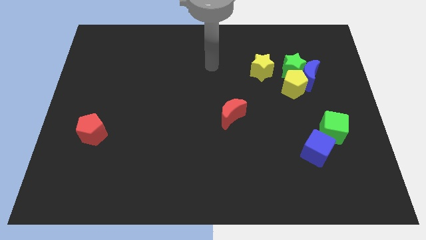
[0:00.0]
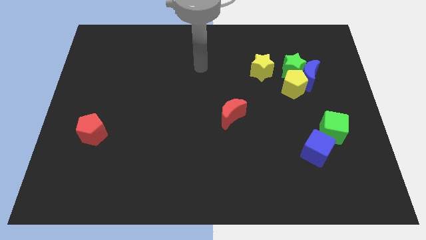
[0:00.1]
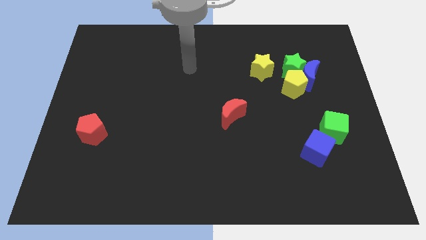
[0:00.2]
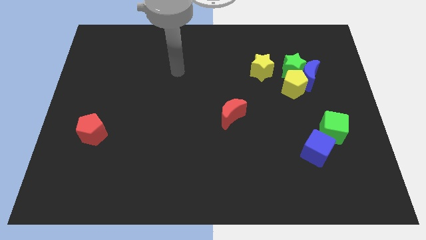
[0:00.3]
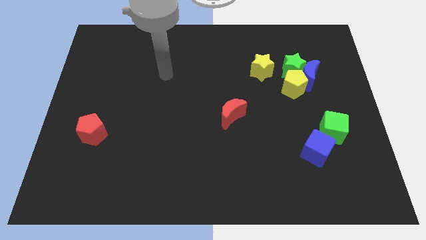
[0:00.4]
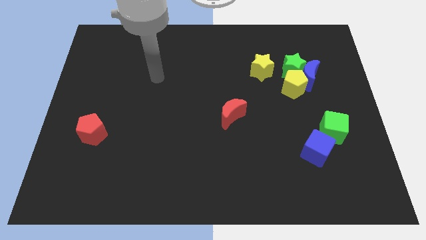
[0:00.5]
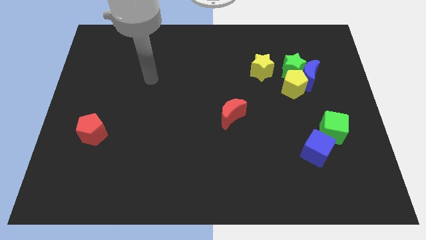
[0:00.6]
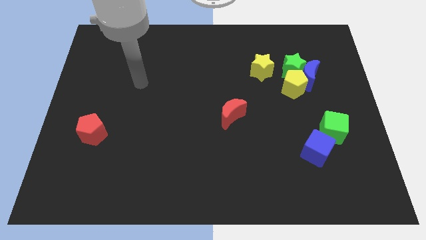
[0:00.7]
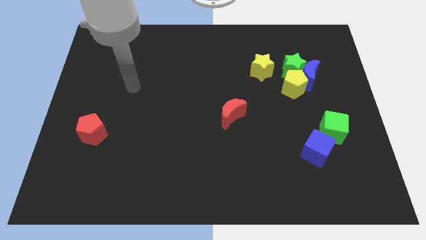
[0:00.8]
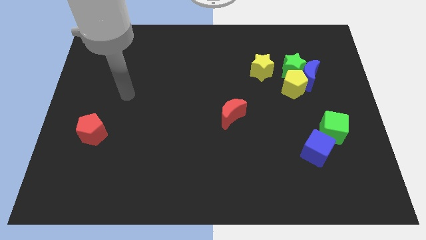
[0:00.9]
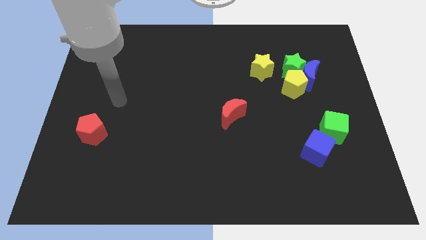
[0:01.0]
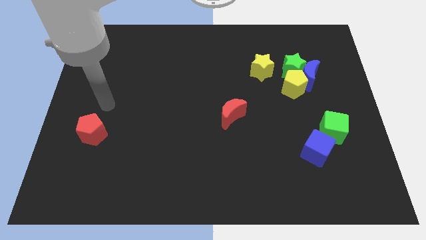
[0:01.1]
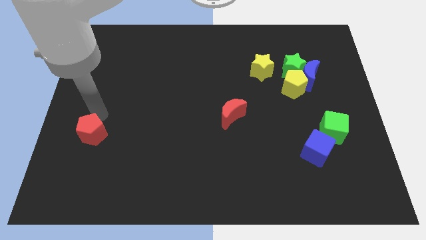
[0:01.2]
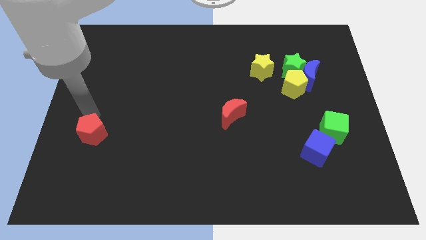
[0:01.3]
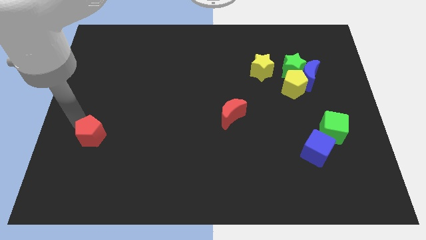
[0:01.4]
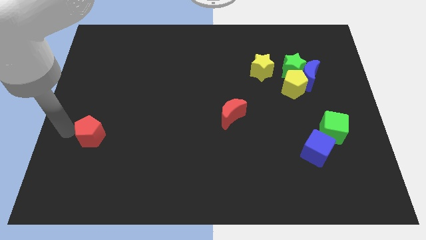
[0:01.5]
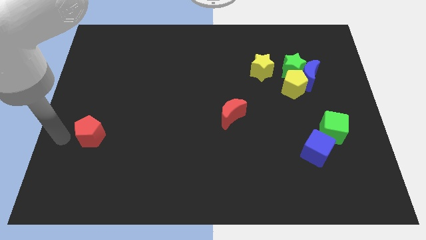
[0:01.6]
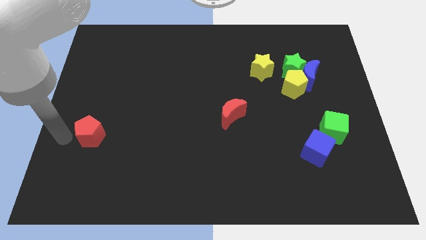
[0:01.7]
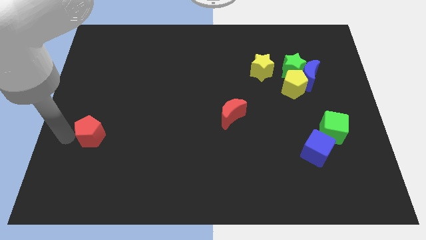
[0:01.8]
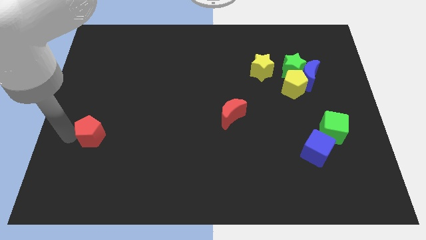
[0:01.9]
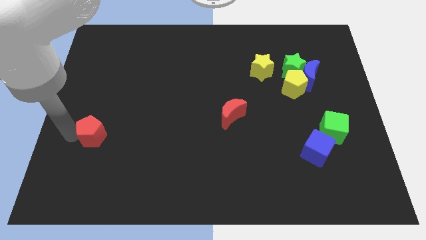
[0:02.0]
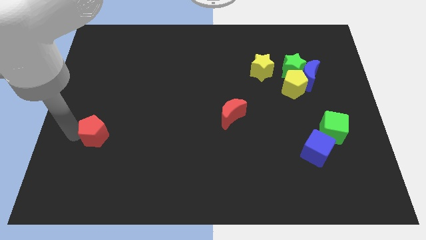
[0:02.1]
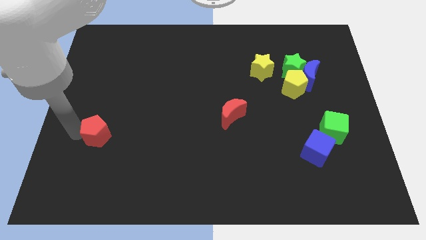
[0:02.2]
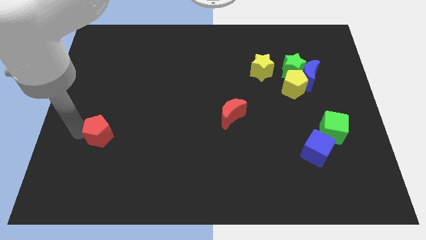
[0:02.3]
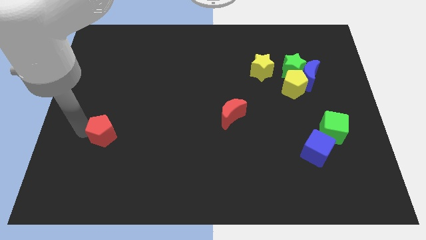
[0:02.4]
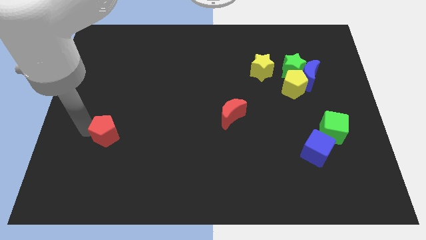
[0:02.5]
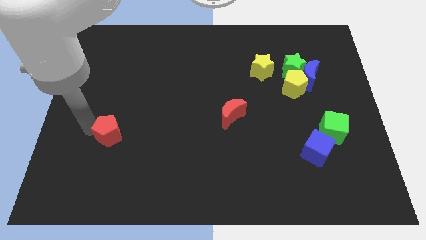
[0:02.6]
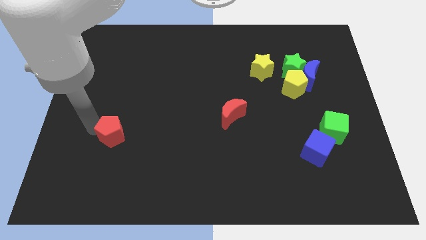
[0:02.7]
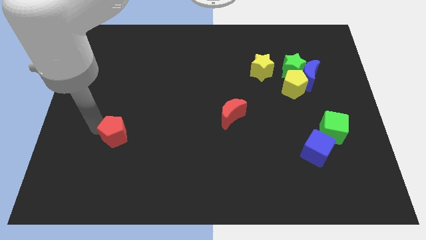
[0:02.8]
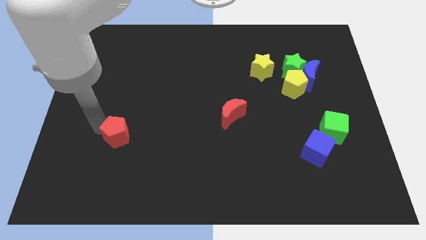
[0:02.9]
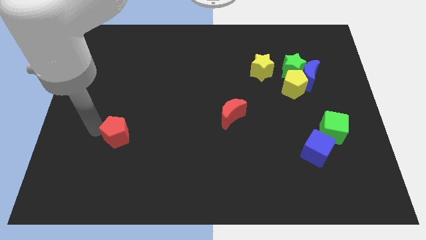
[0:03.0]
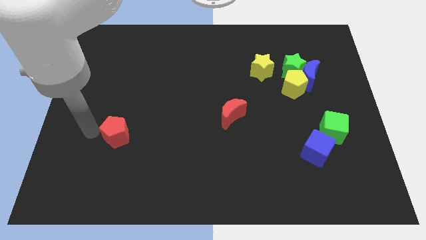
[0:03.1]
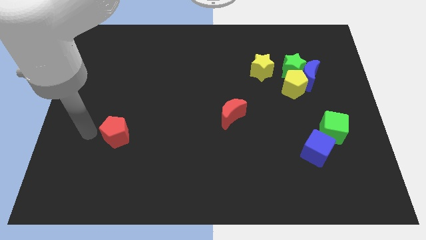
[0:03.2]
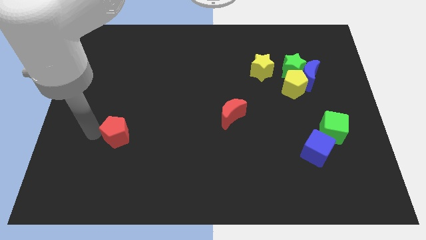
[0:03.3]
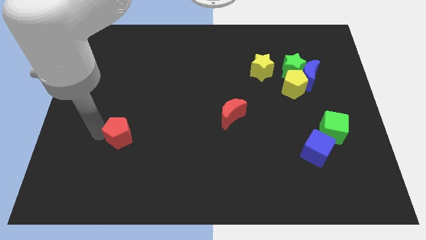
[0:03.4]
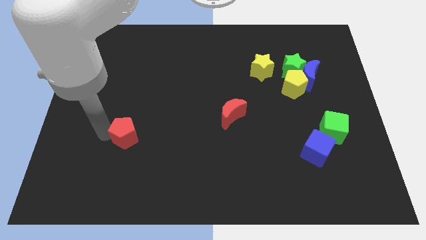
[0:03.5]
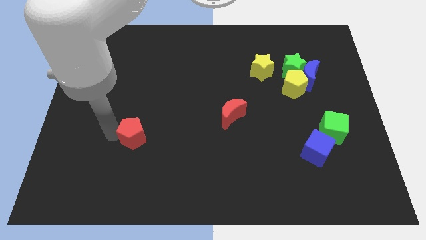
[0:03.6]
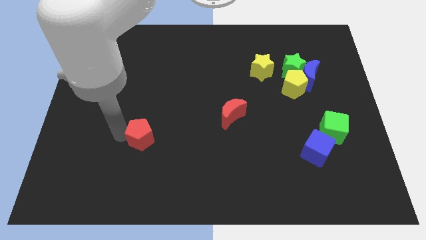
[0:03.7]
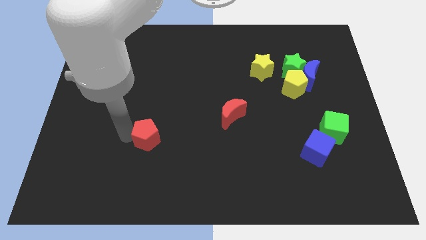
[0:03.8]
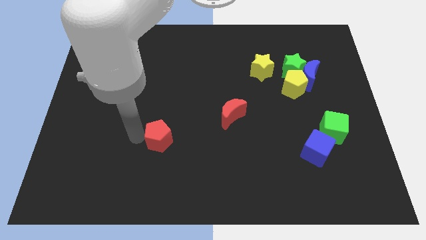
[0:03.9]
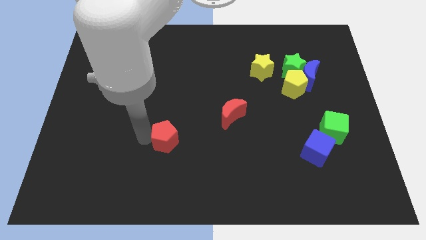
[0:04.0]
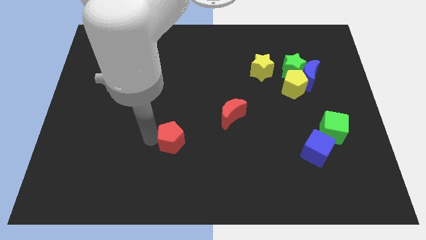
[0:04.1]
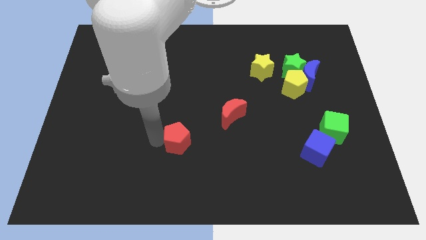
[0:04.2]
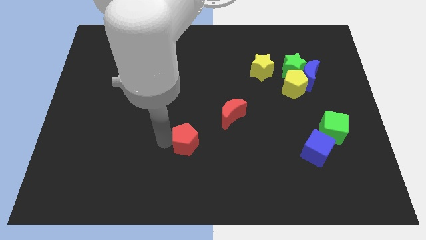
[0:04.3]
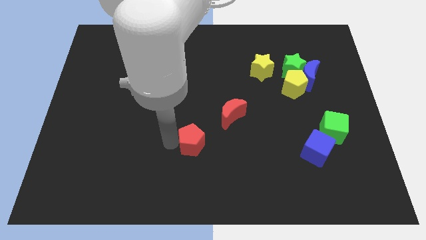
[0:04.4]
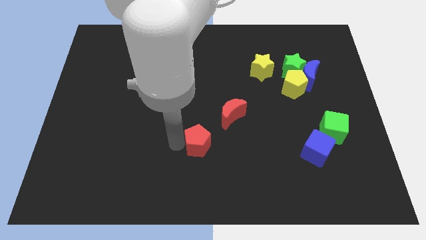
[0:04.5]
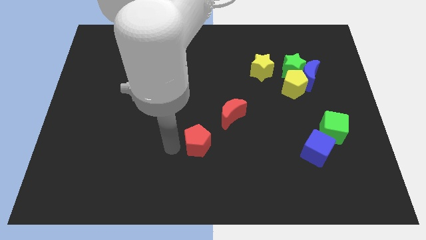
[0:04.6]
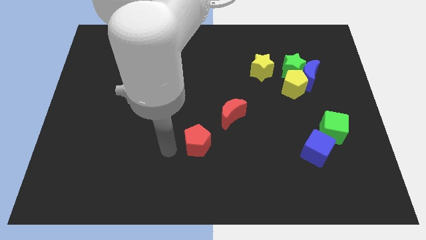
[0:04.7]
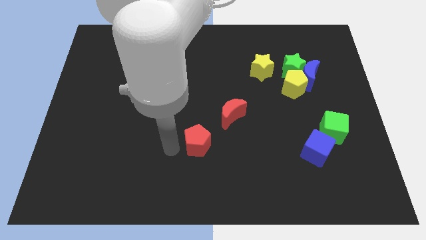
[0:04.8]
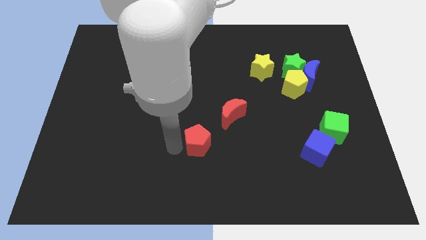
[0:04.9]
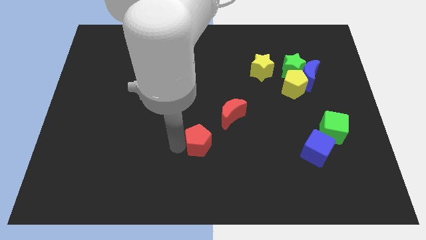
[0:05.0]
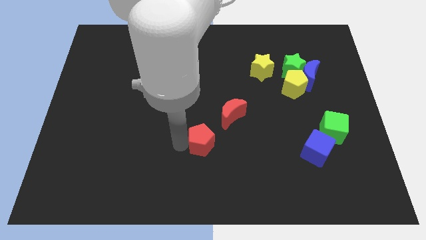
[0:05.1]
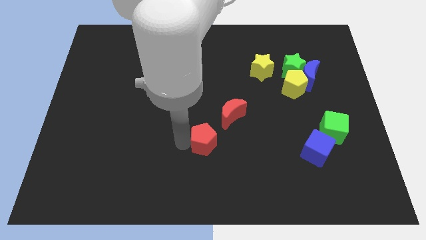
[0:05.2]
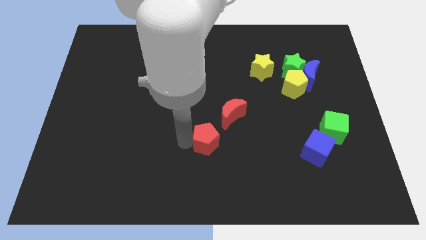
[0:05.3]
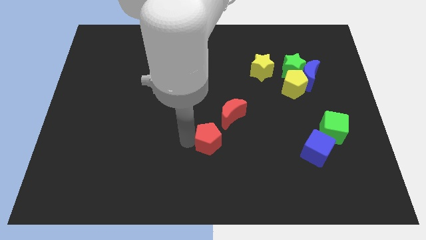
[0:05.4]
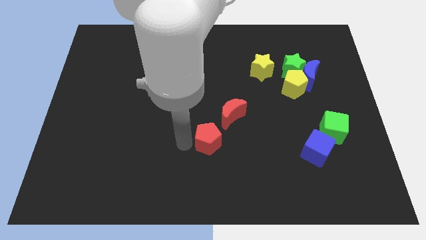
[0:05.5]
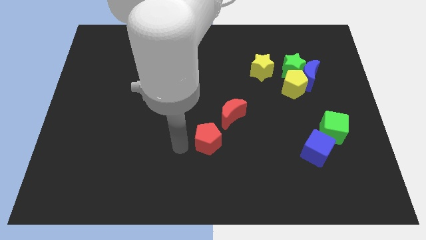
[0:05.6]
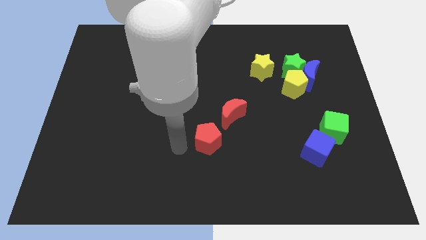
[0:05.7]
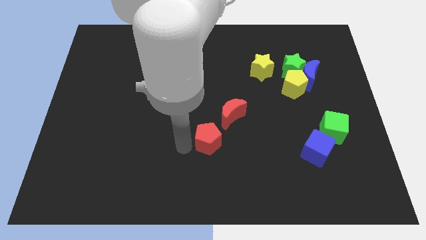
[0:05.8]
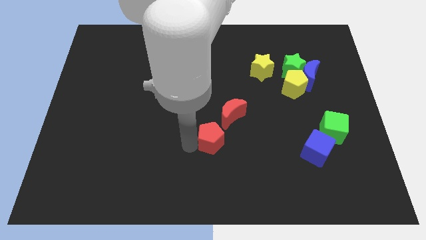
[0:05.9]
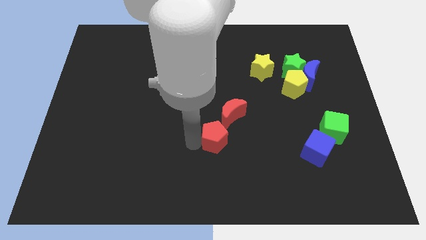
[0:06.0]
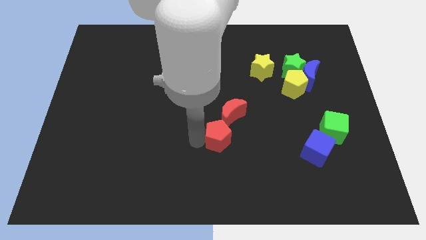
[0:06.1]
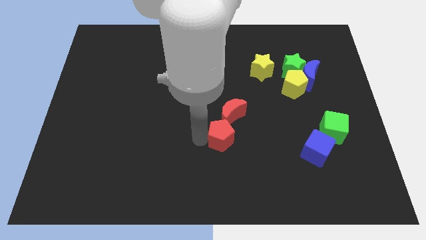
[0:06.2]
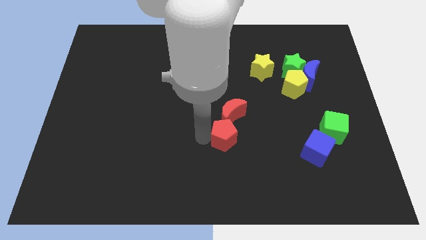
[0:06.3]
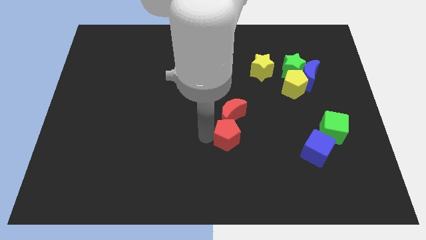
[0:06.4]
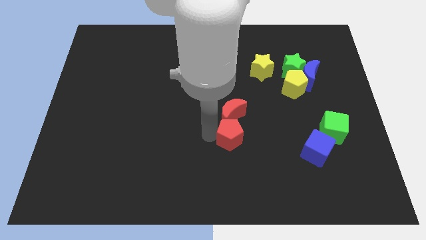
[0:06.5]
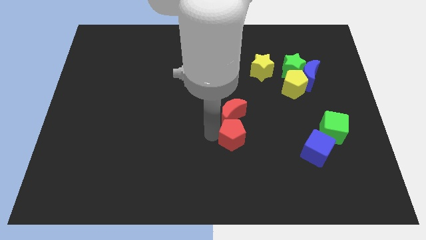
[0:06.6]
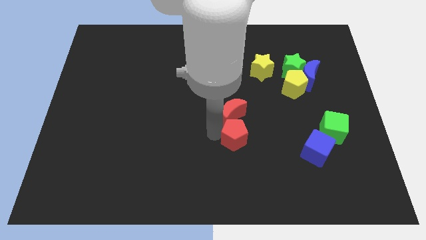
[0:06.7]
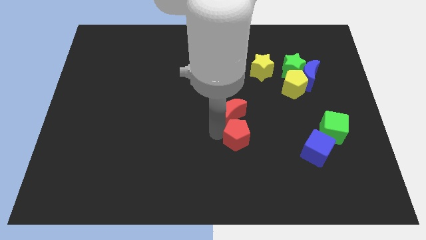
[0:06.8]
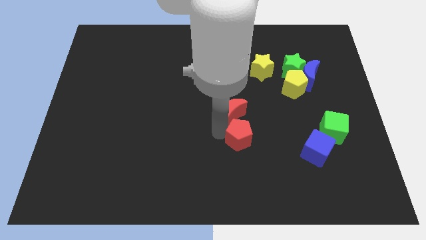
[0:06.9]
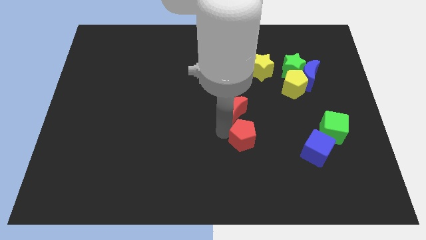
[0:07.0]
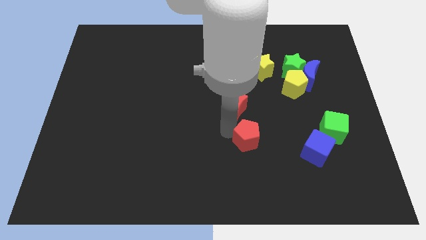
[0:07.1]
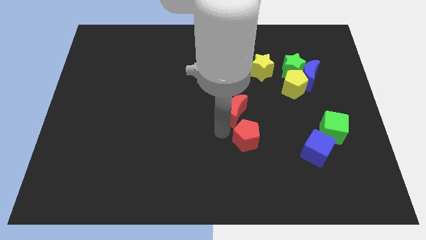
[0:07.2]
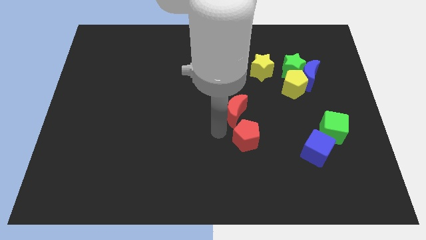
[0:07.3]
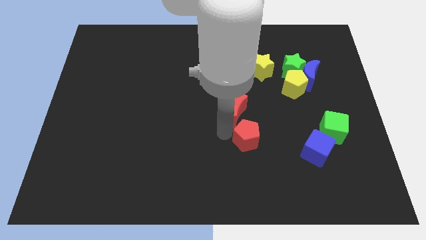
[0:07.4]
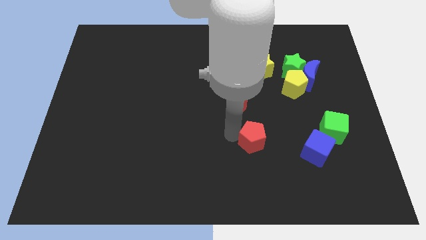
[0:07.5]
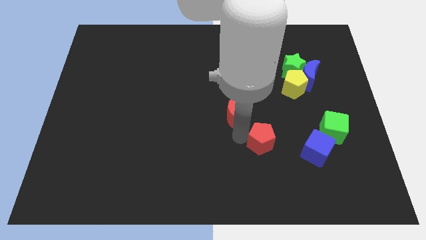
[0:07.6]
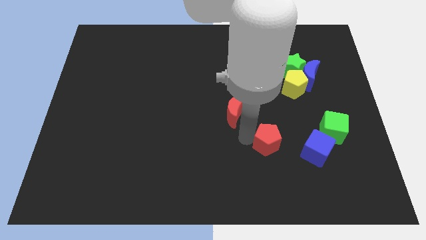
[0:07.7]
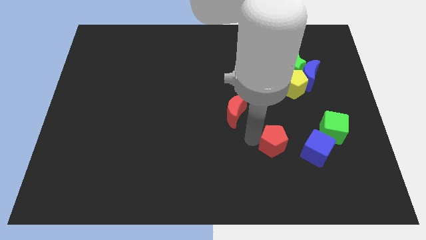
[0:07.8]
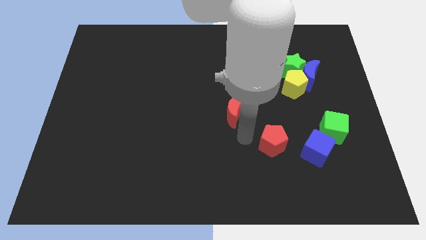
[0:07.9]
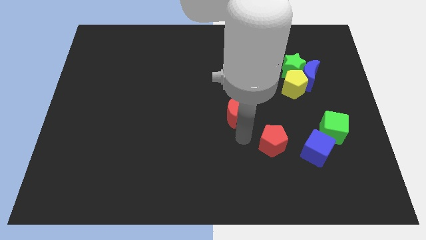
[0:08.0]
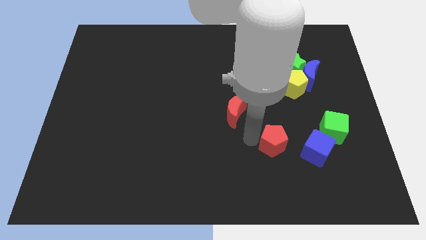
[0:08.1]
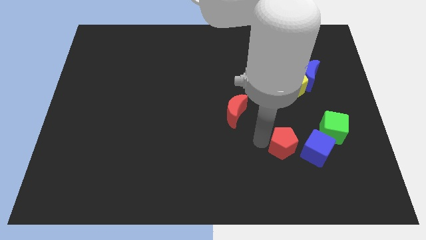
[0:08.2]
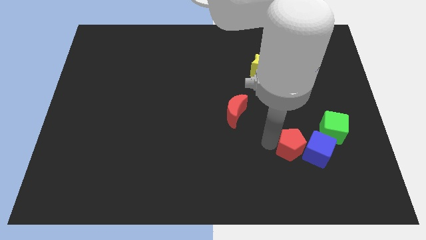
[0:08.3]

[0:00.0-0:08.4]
push the red pentagon to the blue cube
